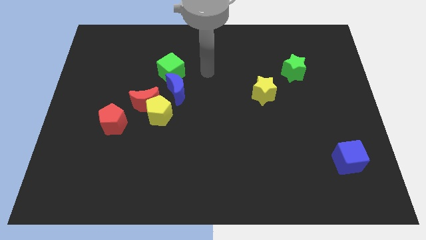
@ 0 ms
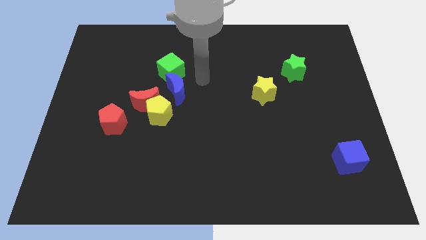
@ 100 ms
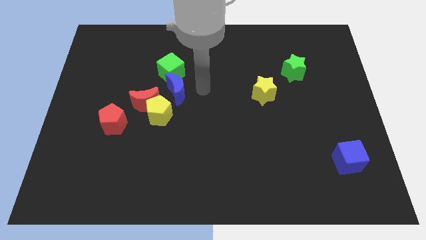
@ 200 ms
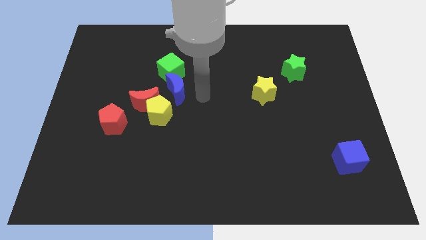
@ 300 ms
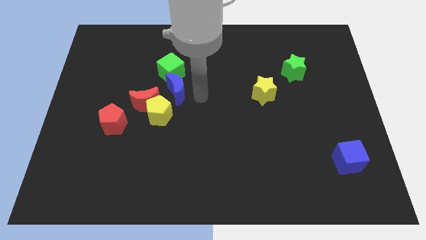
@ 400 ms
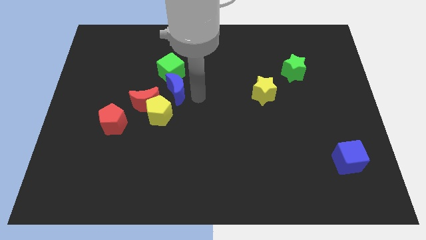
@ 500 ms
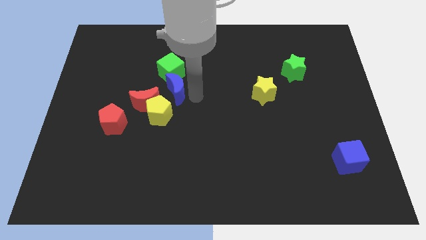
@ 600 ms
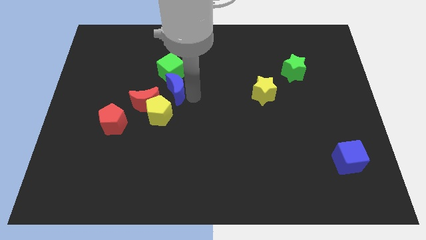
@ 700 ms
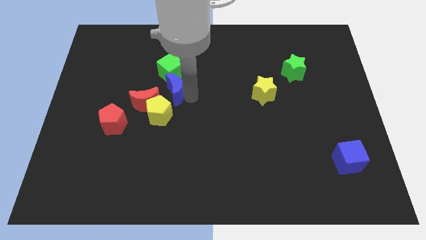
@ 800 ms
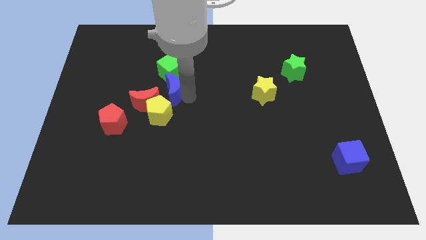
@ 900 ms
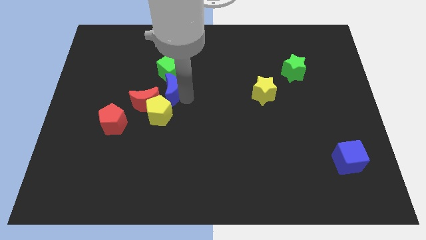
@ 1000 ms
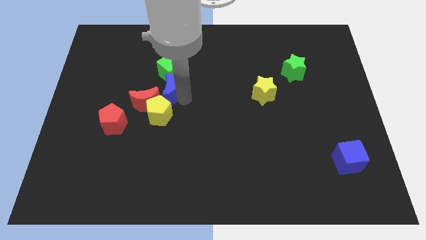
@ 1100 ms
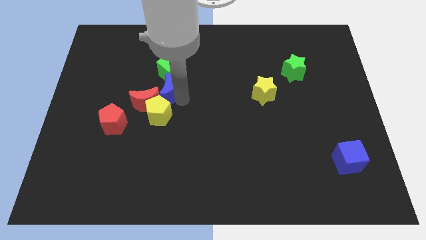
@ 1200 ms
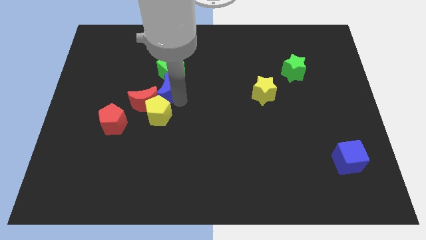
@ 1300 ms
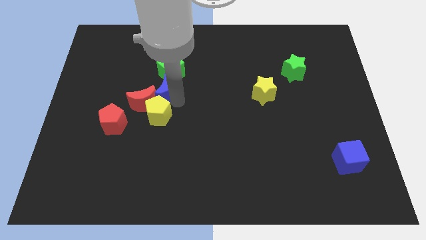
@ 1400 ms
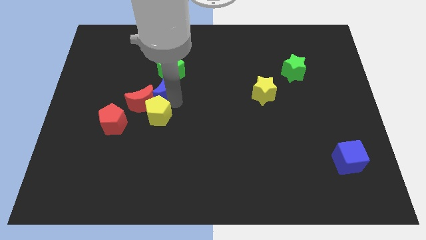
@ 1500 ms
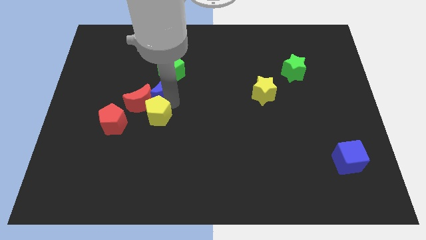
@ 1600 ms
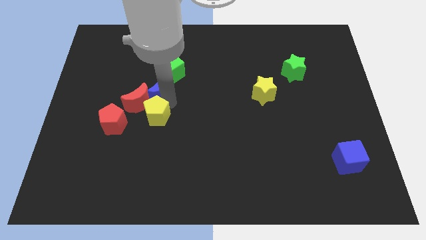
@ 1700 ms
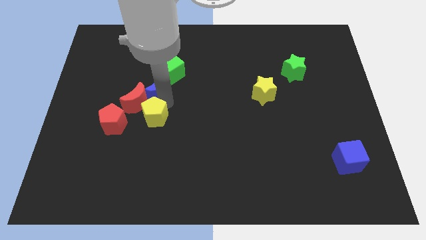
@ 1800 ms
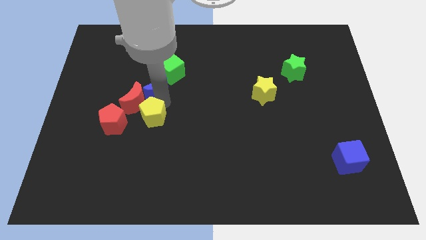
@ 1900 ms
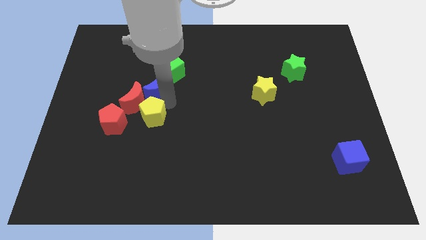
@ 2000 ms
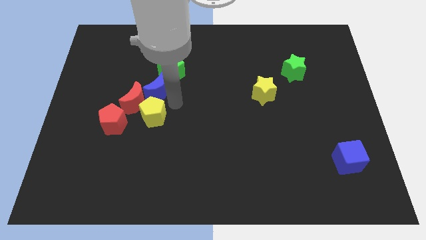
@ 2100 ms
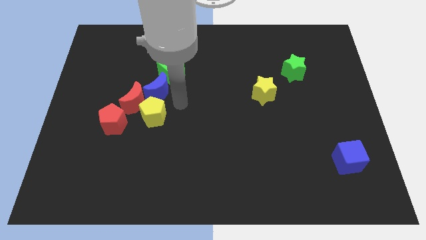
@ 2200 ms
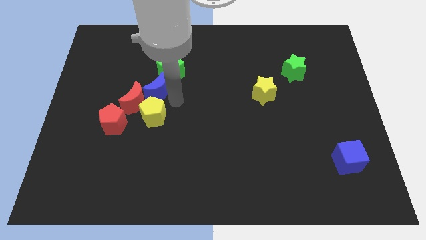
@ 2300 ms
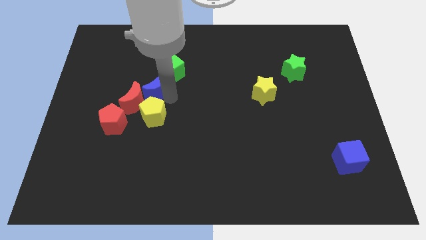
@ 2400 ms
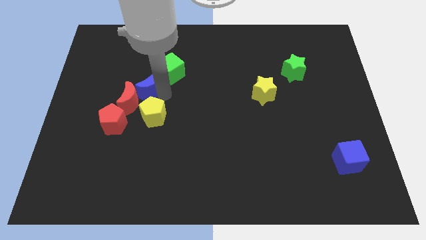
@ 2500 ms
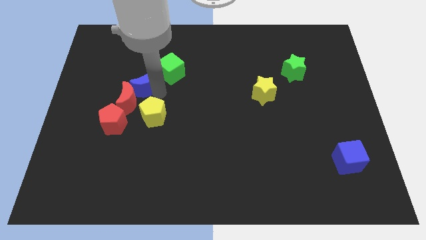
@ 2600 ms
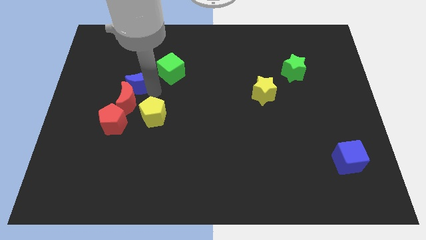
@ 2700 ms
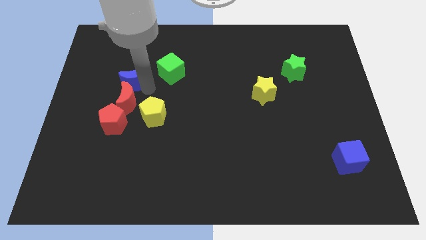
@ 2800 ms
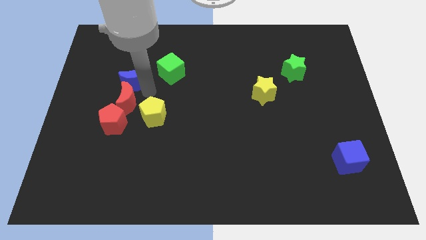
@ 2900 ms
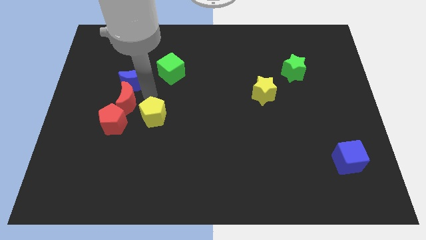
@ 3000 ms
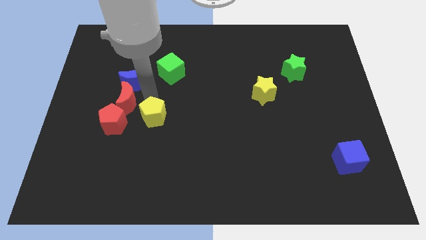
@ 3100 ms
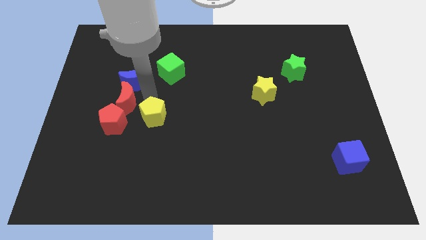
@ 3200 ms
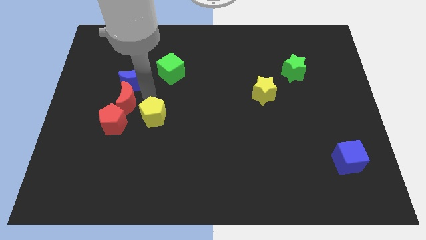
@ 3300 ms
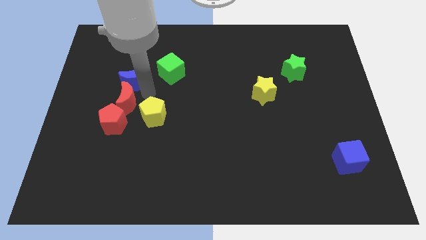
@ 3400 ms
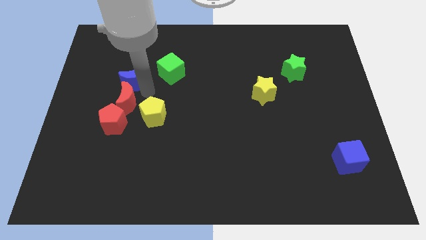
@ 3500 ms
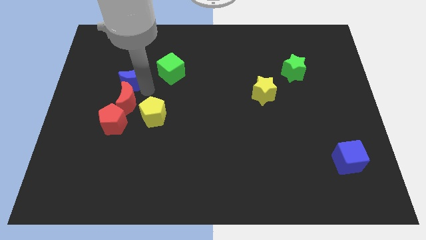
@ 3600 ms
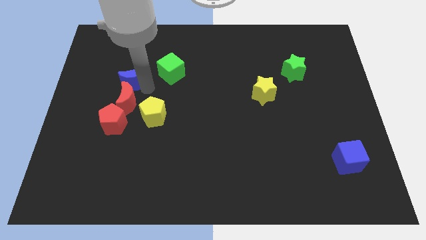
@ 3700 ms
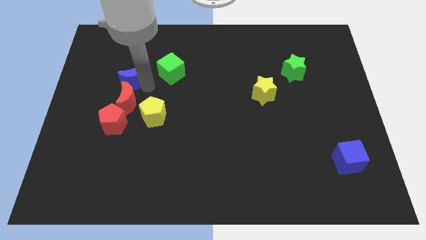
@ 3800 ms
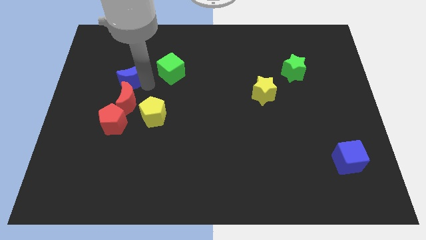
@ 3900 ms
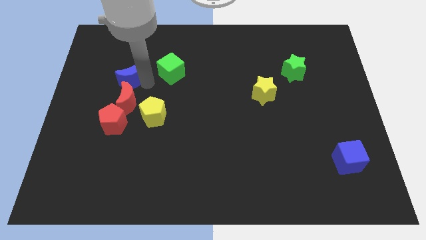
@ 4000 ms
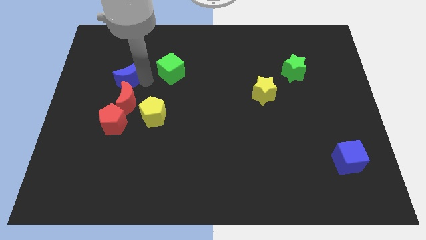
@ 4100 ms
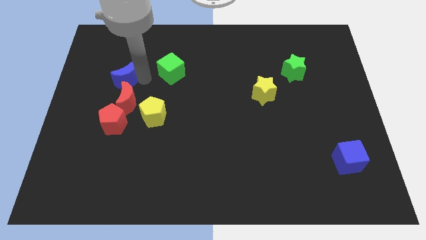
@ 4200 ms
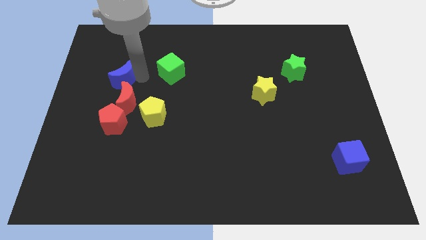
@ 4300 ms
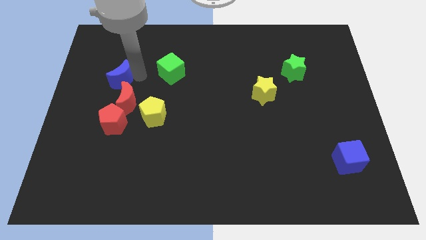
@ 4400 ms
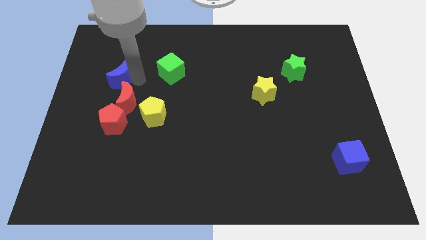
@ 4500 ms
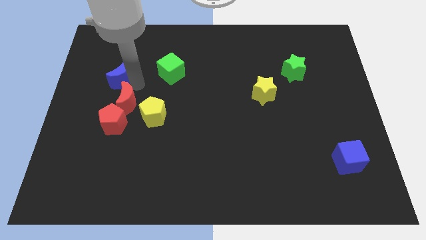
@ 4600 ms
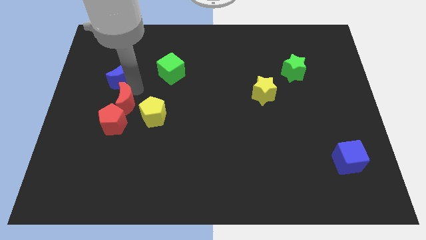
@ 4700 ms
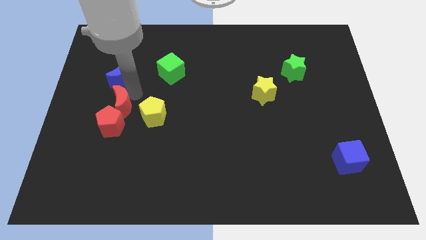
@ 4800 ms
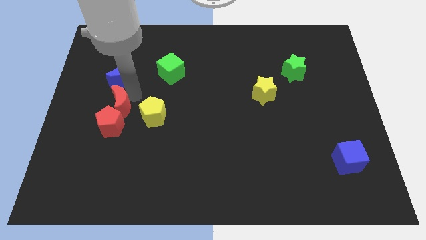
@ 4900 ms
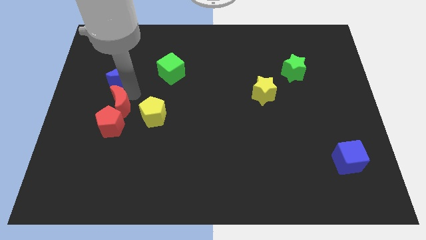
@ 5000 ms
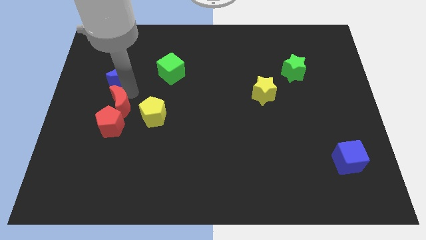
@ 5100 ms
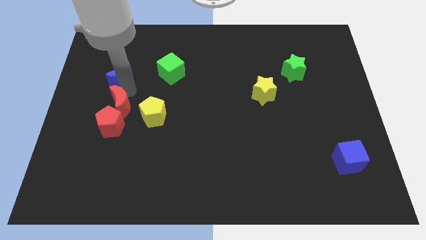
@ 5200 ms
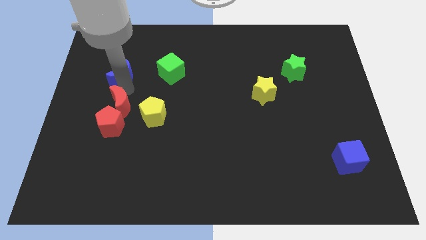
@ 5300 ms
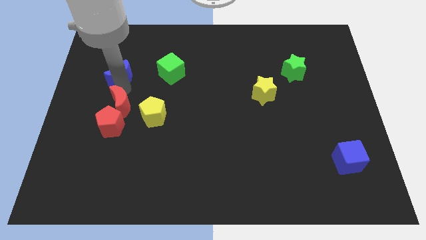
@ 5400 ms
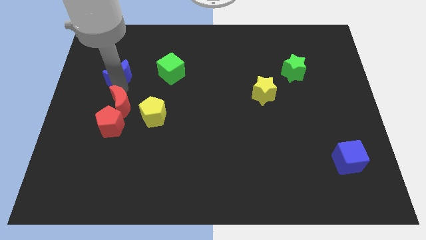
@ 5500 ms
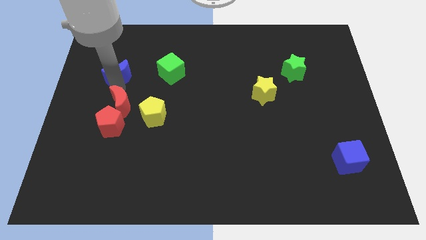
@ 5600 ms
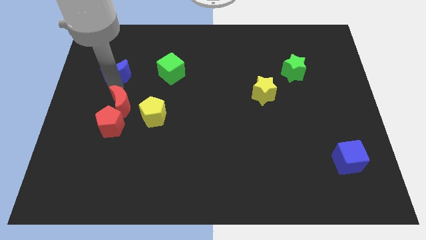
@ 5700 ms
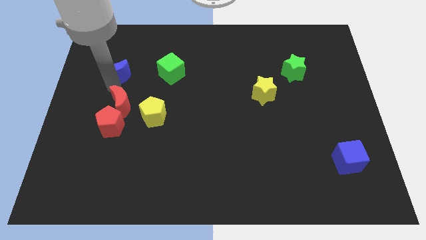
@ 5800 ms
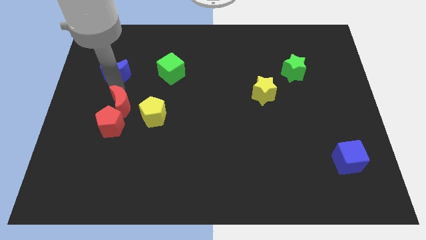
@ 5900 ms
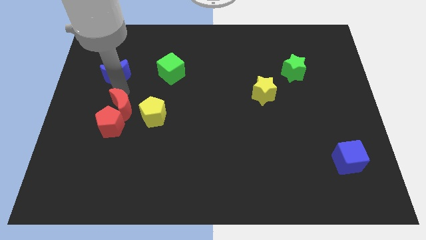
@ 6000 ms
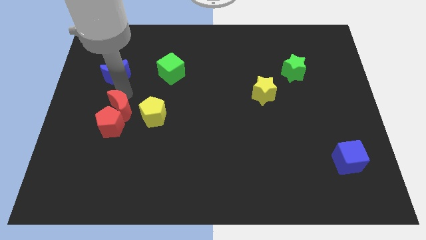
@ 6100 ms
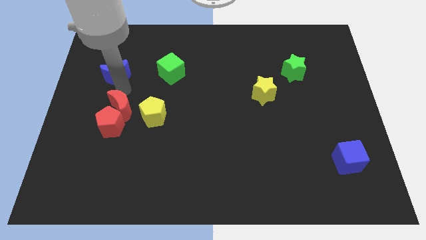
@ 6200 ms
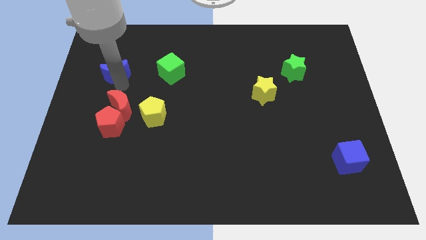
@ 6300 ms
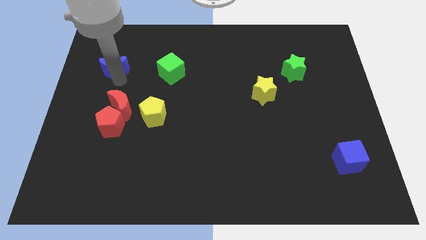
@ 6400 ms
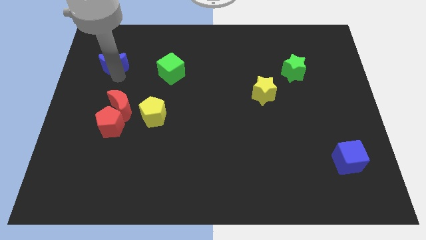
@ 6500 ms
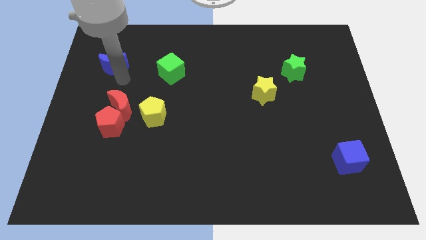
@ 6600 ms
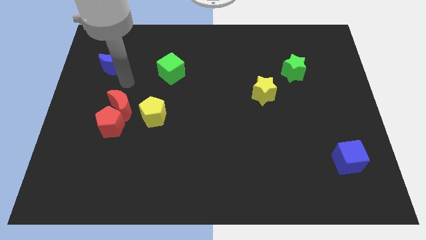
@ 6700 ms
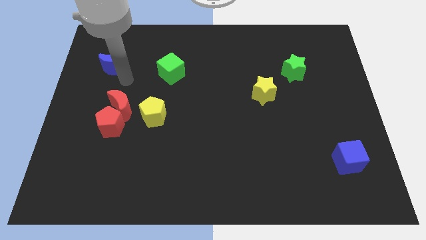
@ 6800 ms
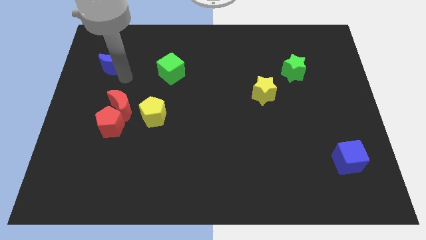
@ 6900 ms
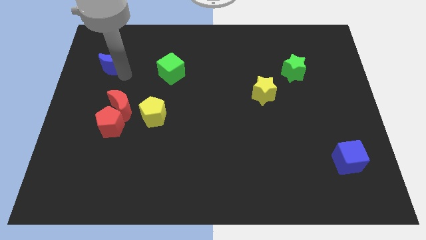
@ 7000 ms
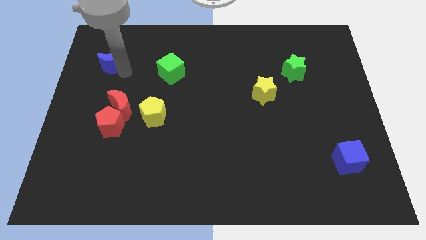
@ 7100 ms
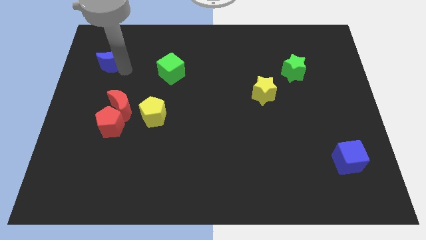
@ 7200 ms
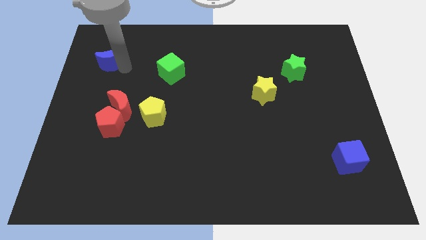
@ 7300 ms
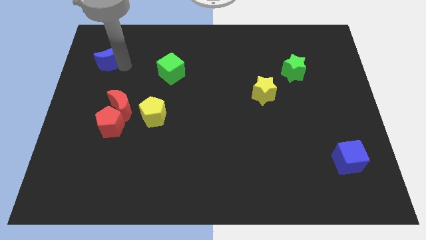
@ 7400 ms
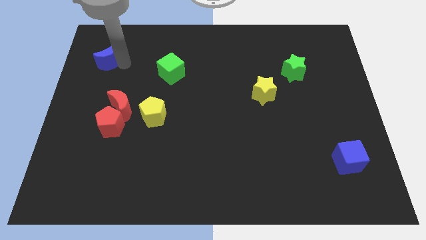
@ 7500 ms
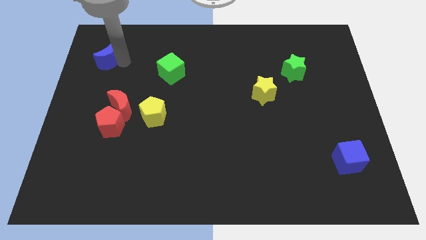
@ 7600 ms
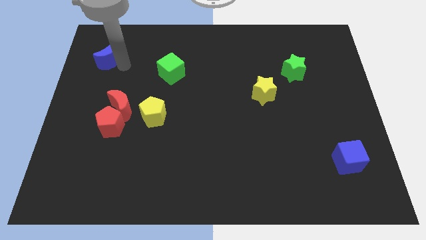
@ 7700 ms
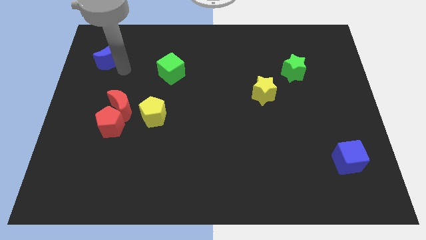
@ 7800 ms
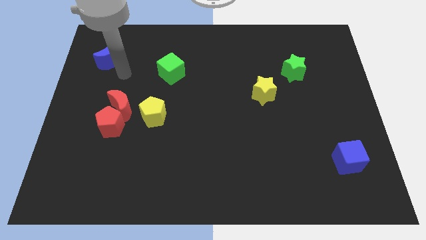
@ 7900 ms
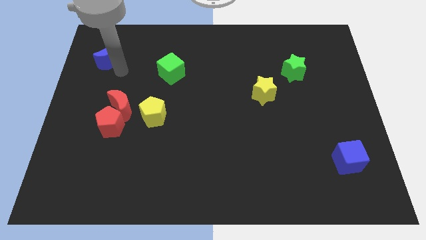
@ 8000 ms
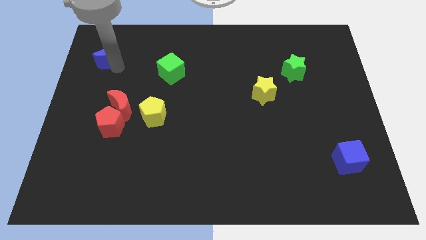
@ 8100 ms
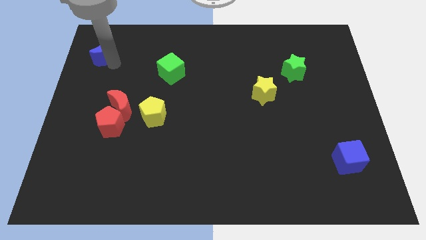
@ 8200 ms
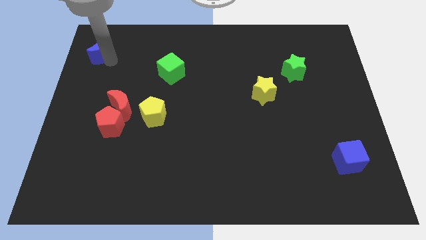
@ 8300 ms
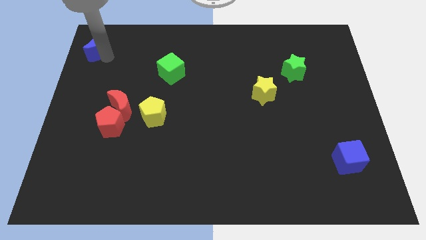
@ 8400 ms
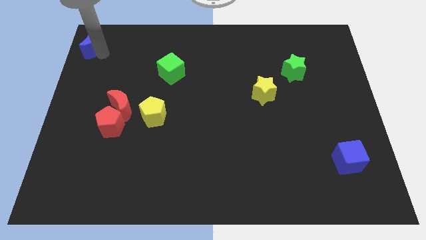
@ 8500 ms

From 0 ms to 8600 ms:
push the blue moon to the top left
